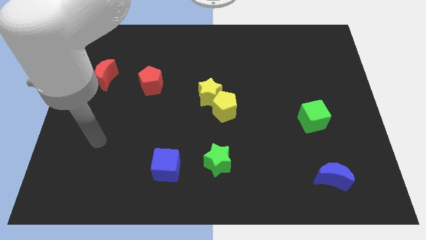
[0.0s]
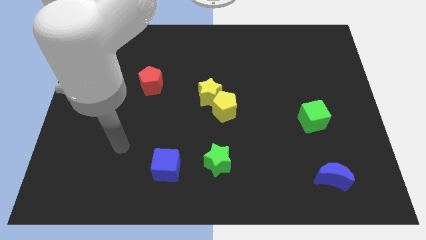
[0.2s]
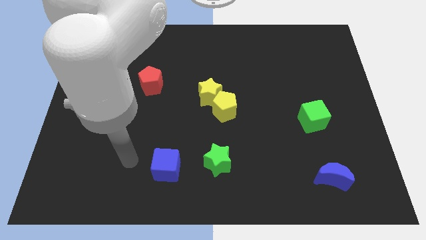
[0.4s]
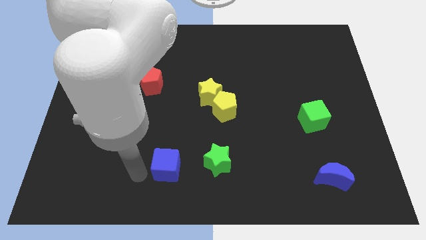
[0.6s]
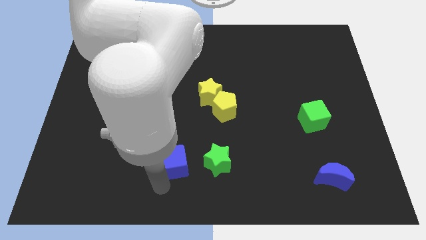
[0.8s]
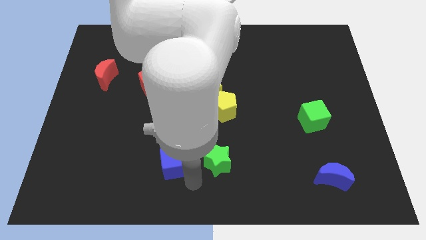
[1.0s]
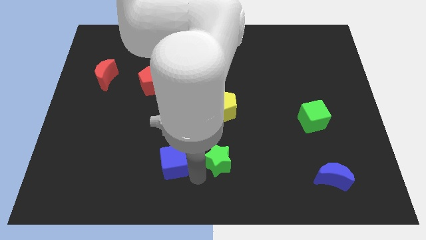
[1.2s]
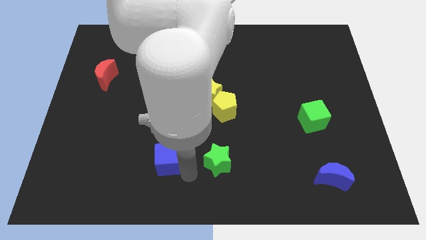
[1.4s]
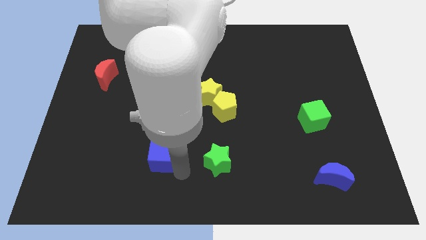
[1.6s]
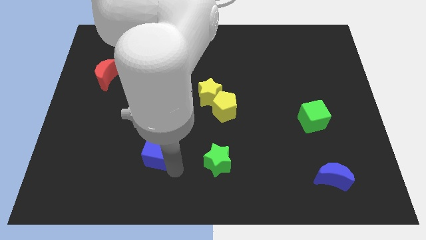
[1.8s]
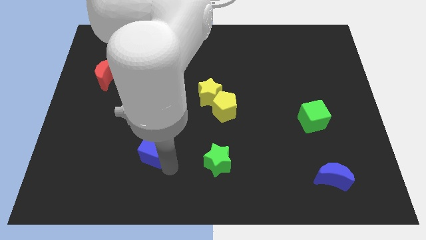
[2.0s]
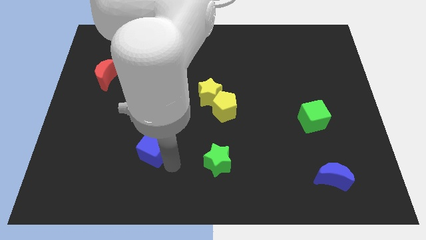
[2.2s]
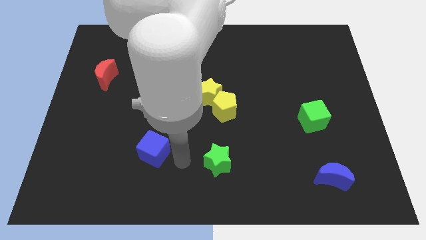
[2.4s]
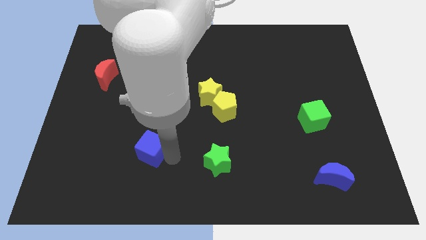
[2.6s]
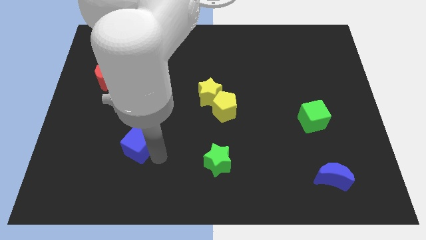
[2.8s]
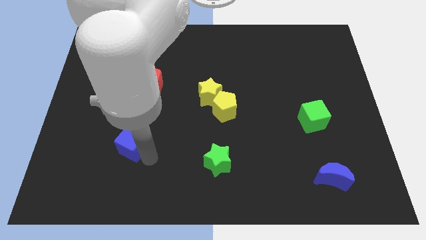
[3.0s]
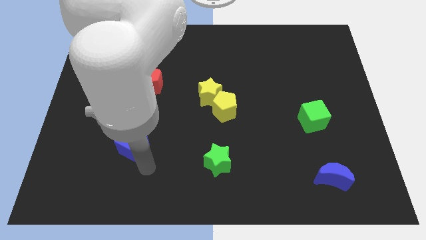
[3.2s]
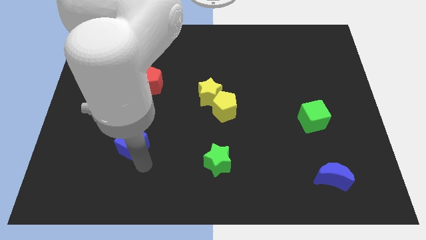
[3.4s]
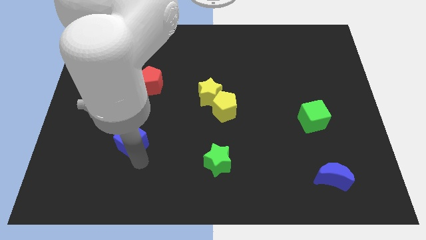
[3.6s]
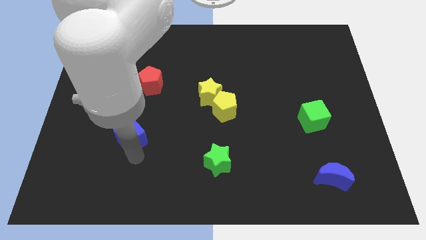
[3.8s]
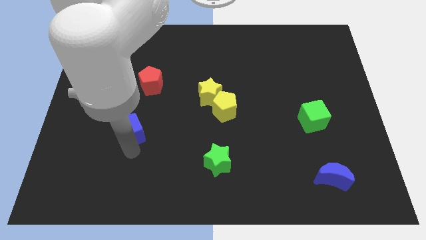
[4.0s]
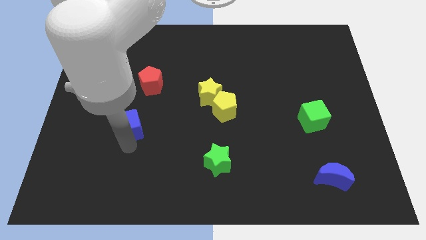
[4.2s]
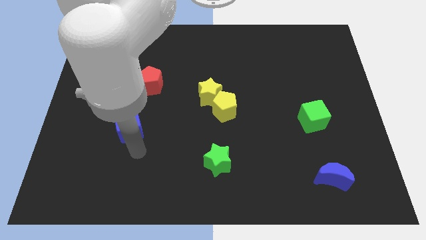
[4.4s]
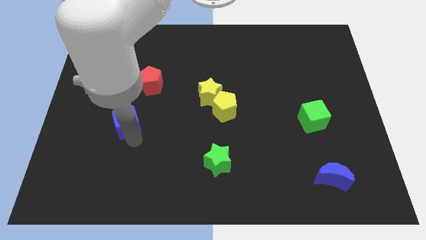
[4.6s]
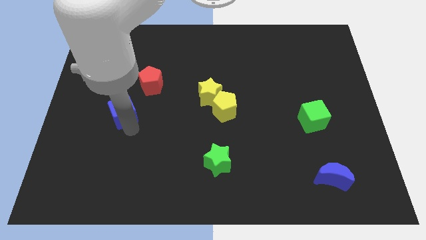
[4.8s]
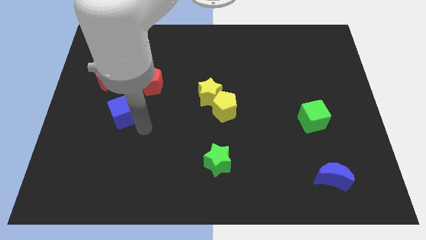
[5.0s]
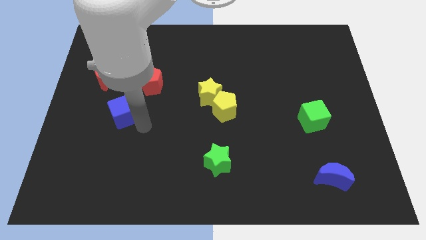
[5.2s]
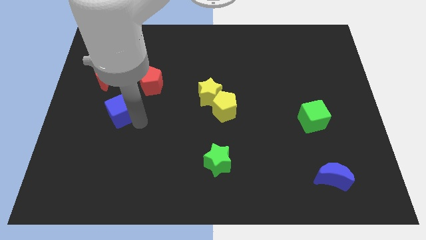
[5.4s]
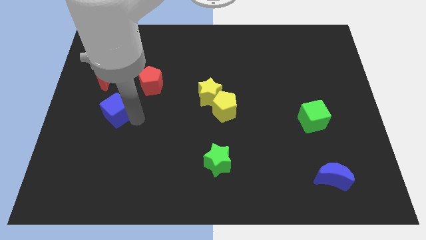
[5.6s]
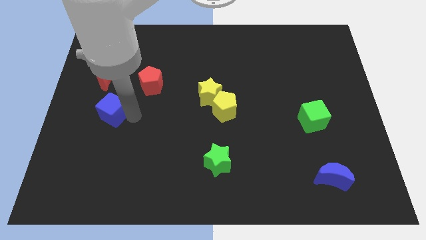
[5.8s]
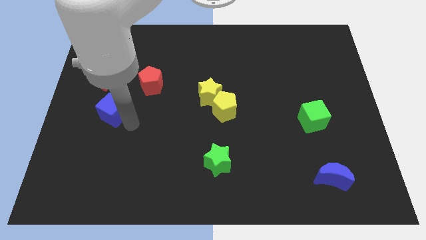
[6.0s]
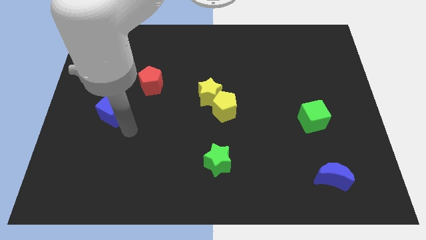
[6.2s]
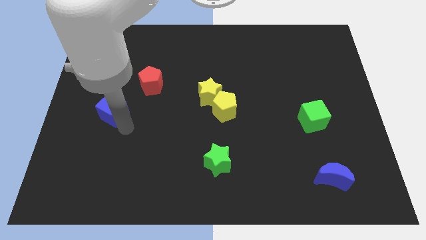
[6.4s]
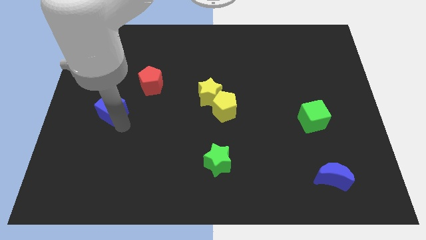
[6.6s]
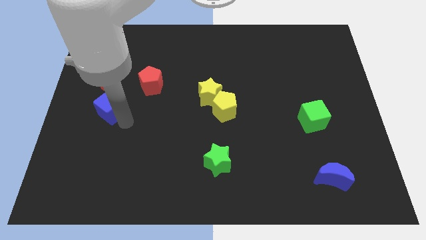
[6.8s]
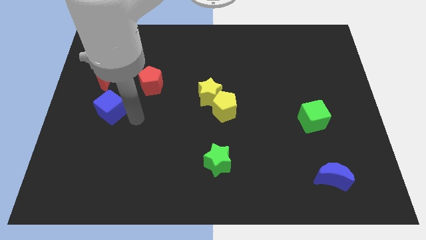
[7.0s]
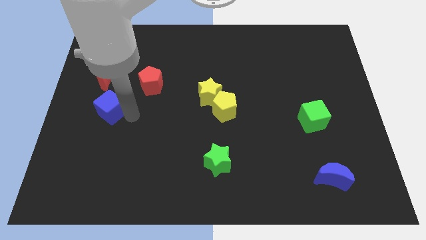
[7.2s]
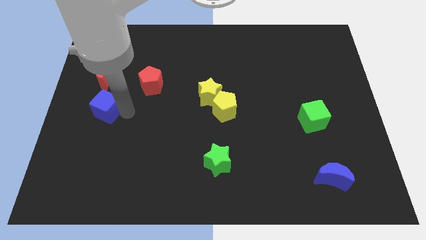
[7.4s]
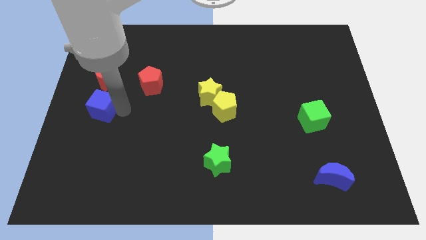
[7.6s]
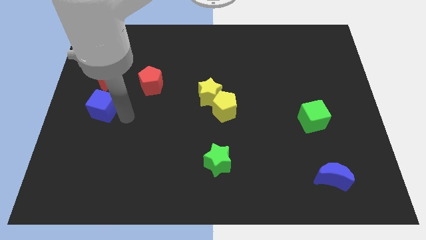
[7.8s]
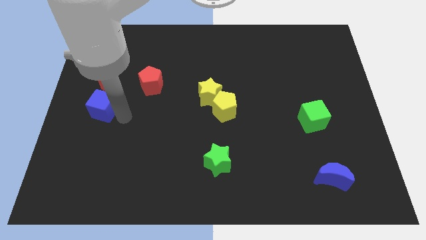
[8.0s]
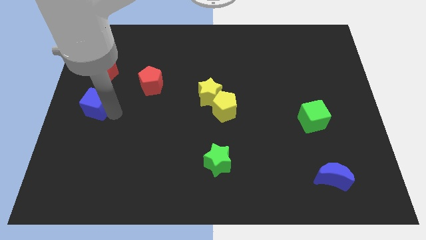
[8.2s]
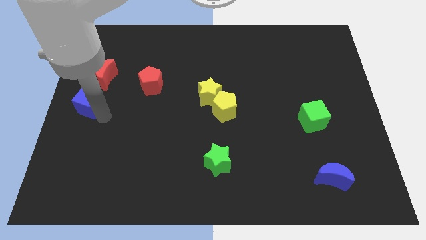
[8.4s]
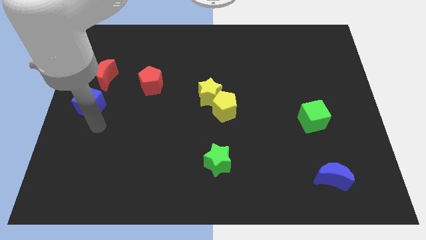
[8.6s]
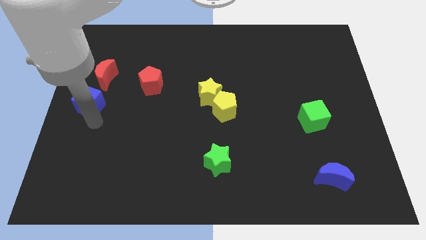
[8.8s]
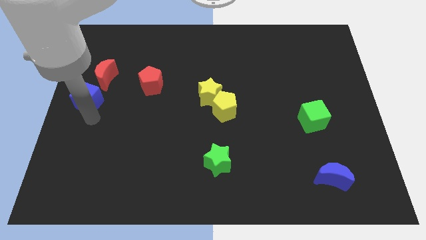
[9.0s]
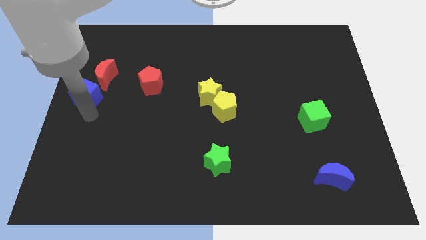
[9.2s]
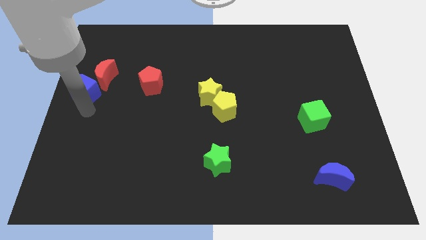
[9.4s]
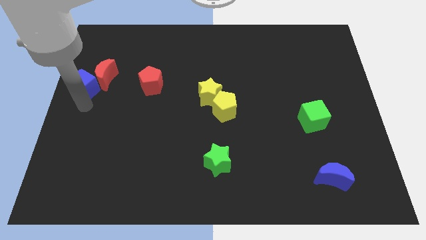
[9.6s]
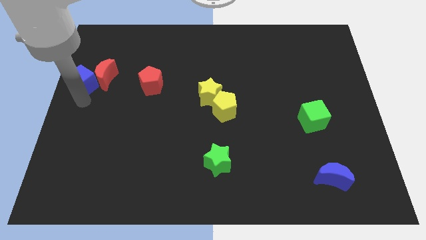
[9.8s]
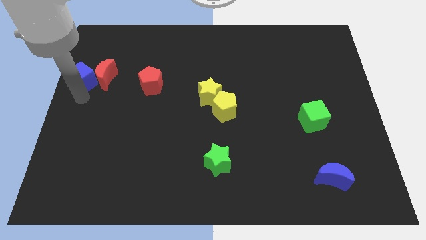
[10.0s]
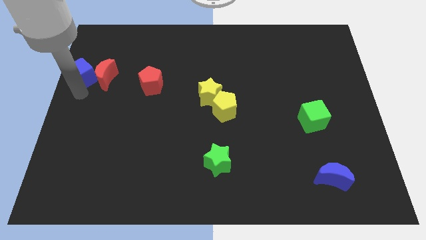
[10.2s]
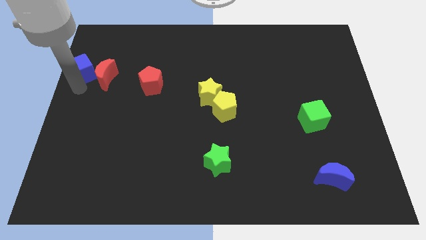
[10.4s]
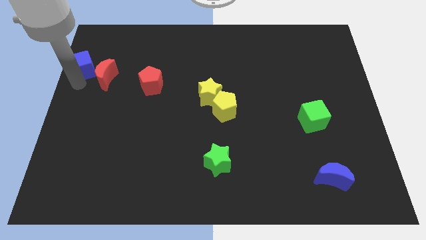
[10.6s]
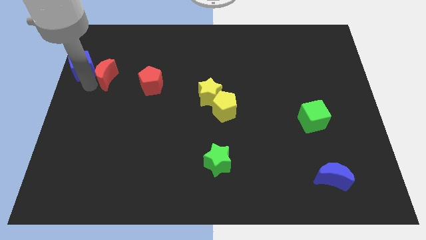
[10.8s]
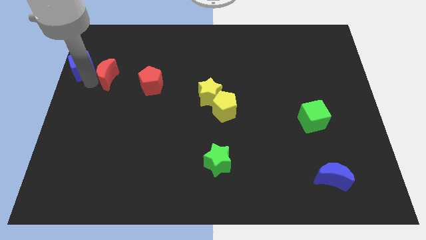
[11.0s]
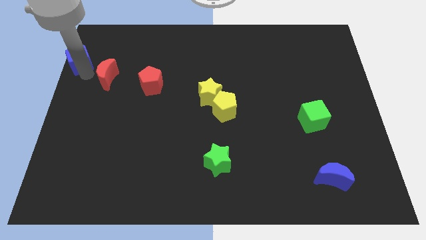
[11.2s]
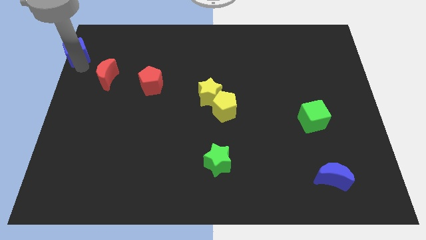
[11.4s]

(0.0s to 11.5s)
put the blue cube to the top left

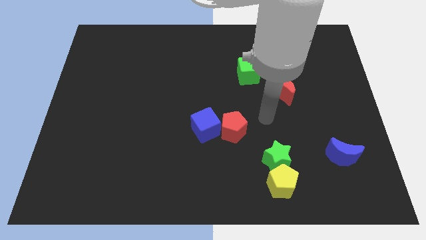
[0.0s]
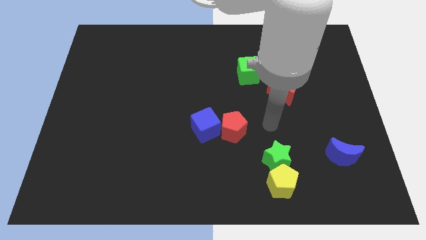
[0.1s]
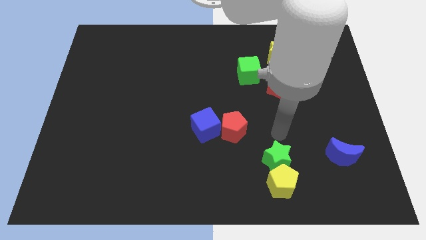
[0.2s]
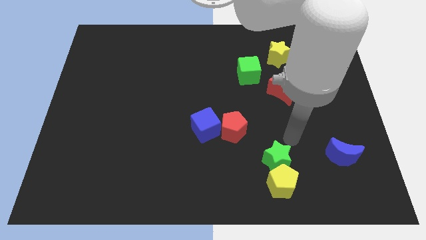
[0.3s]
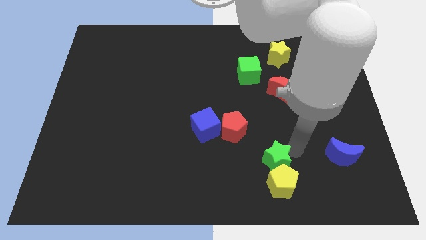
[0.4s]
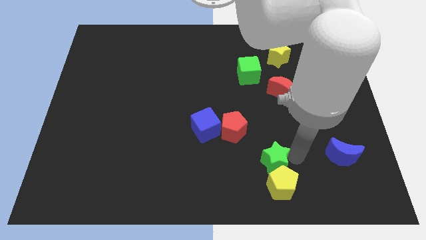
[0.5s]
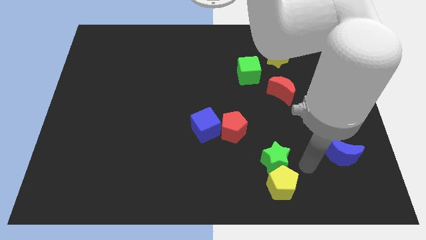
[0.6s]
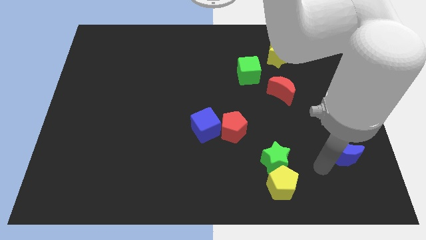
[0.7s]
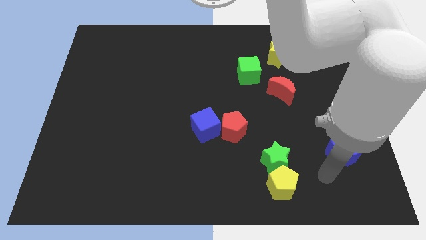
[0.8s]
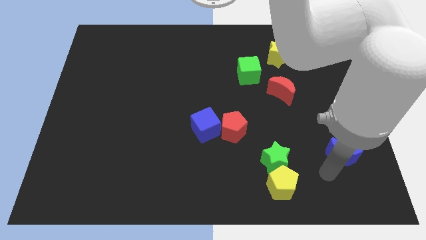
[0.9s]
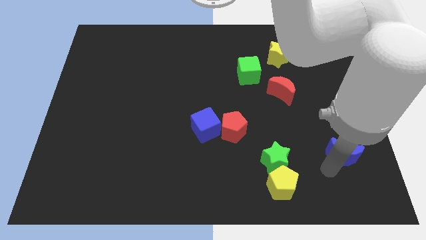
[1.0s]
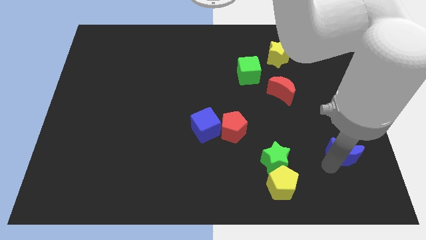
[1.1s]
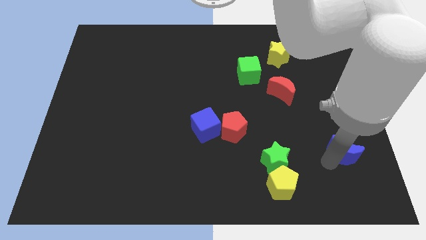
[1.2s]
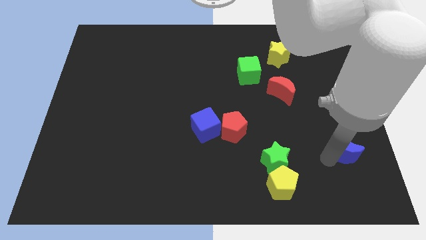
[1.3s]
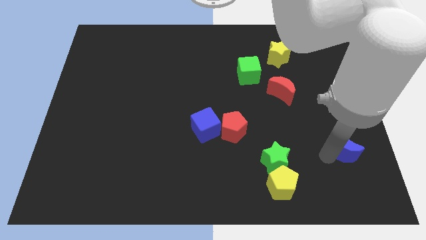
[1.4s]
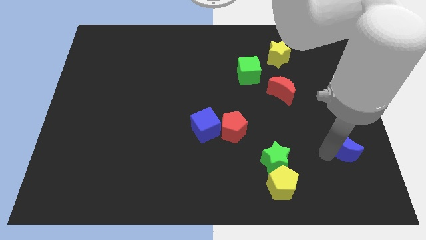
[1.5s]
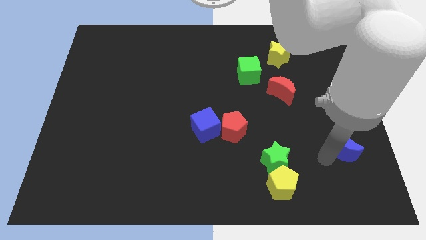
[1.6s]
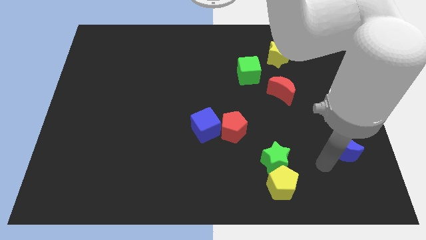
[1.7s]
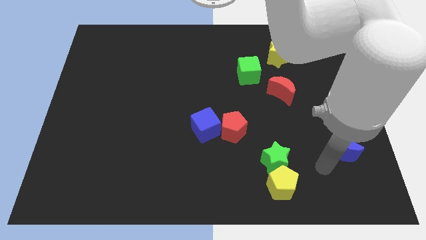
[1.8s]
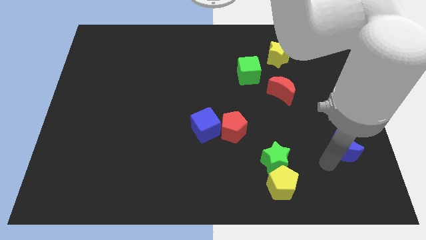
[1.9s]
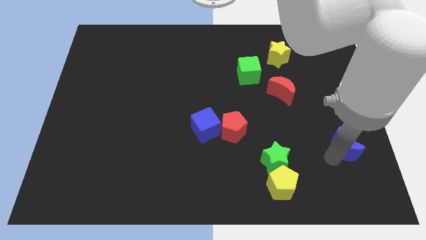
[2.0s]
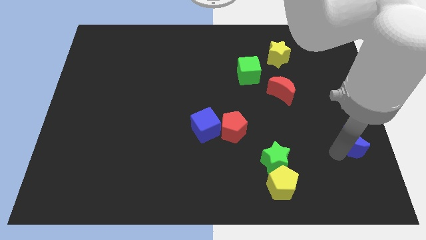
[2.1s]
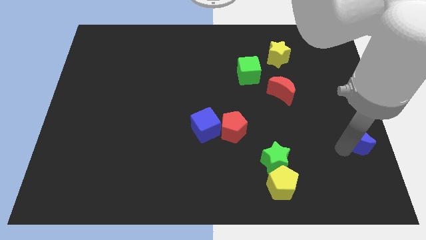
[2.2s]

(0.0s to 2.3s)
slide the blue moon to the center right
